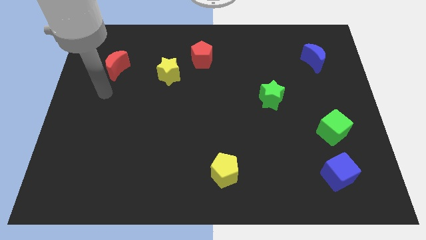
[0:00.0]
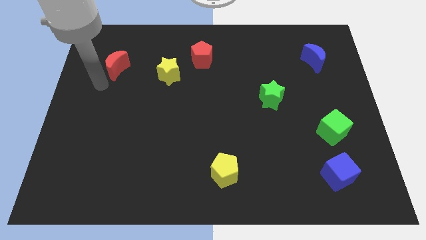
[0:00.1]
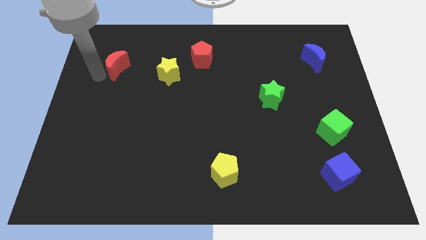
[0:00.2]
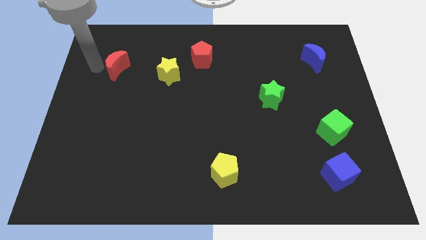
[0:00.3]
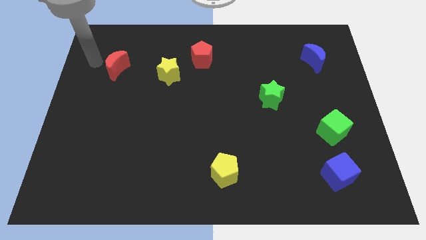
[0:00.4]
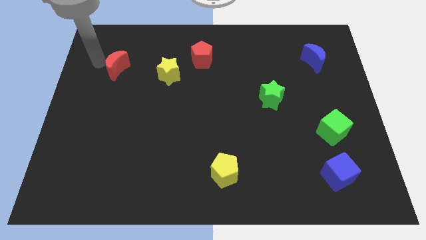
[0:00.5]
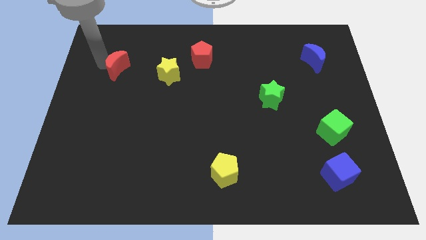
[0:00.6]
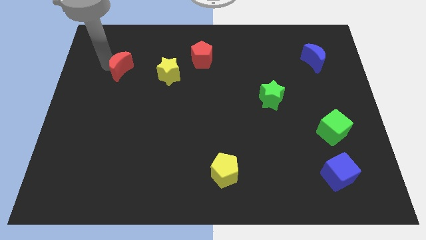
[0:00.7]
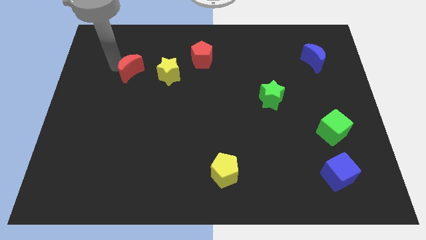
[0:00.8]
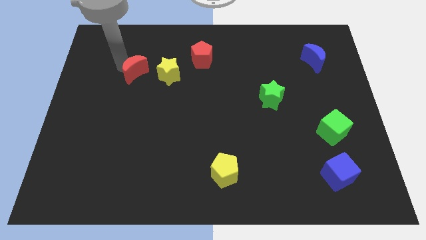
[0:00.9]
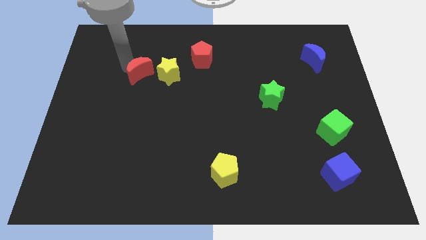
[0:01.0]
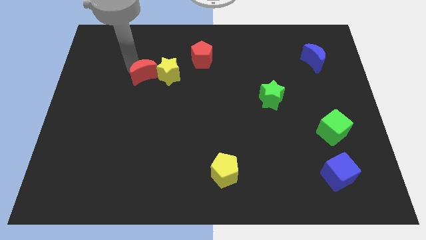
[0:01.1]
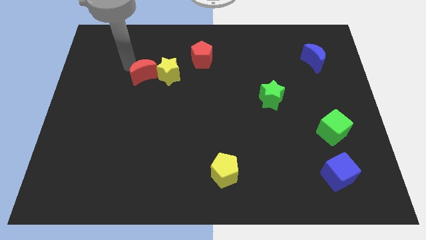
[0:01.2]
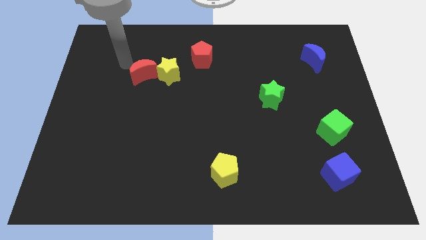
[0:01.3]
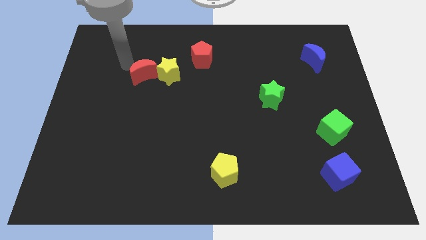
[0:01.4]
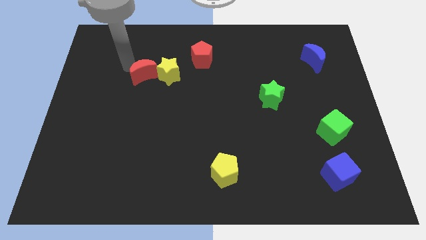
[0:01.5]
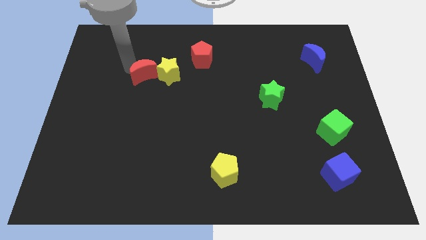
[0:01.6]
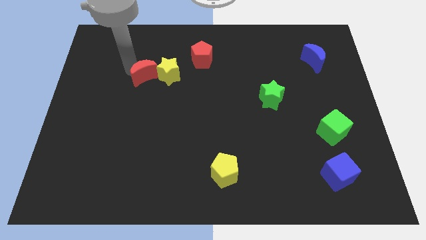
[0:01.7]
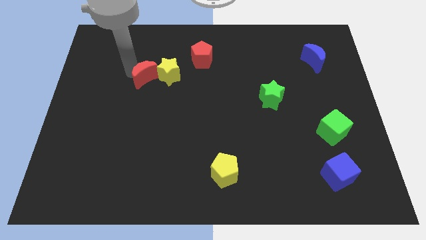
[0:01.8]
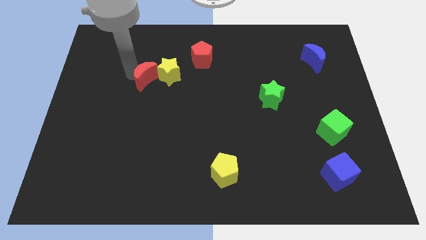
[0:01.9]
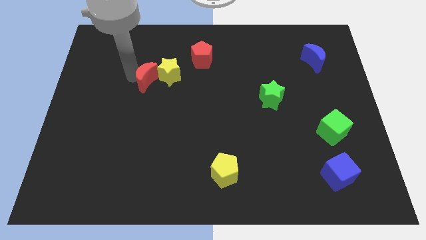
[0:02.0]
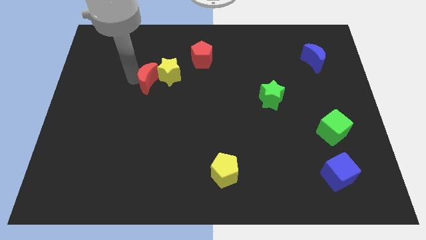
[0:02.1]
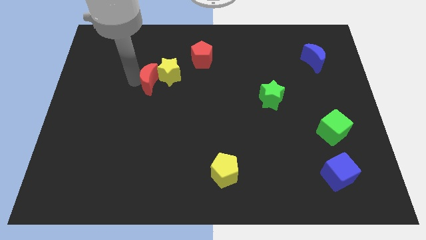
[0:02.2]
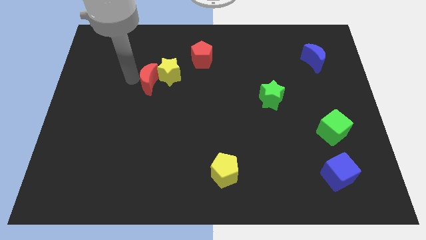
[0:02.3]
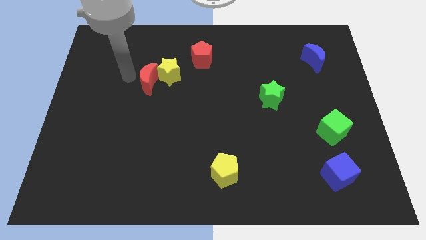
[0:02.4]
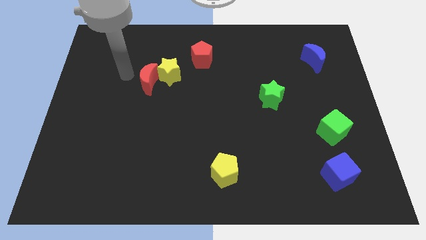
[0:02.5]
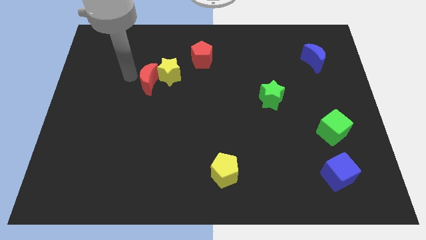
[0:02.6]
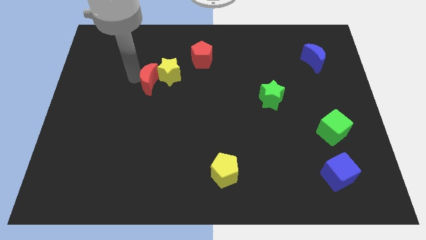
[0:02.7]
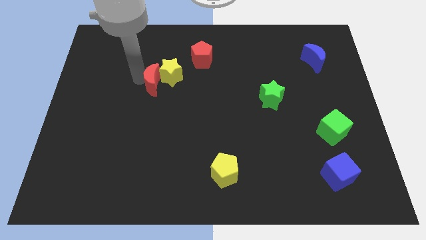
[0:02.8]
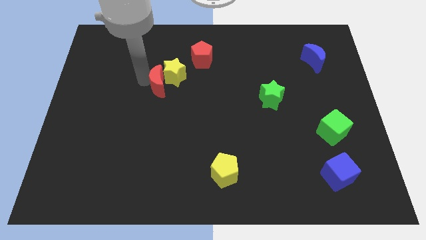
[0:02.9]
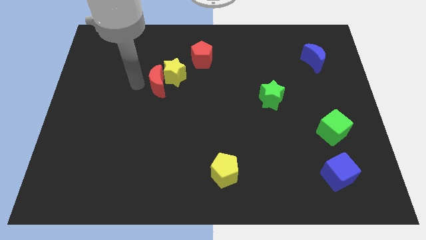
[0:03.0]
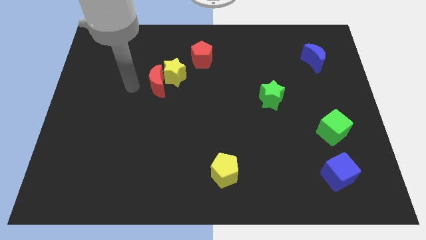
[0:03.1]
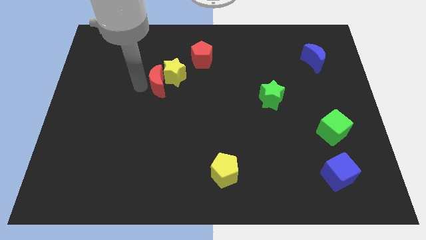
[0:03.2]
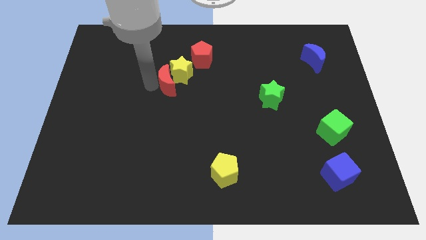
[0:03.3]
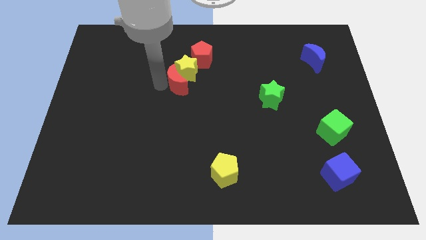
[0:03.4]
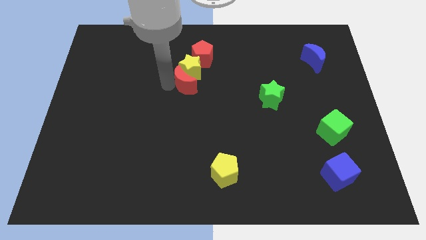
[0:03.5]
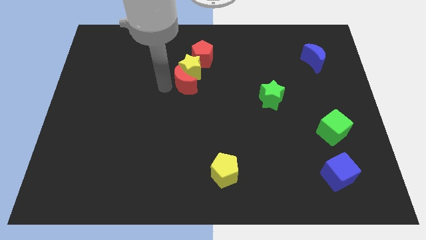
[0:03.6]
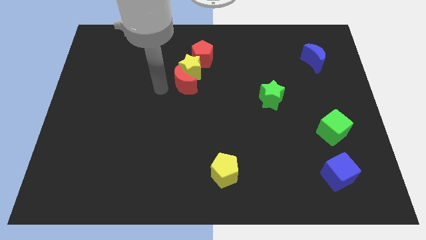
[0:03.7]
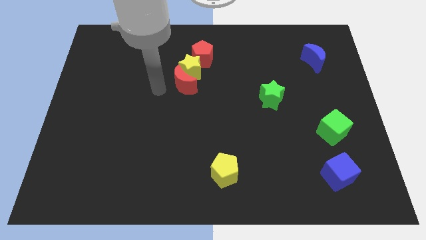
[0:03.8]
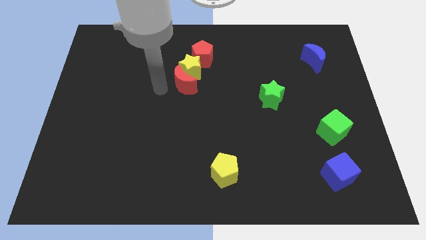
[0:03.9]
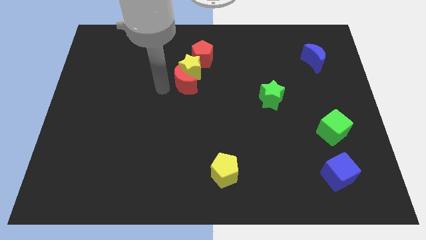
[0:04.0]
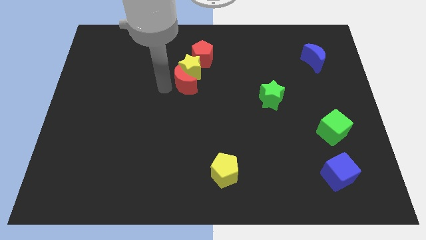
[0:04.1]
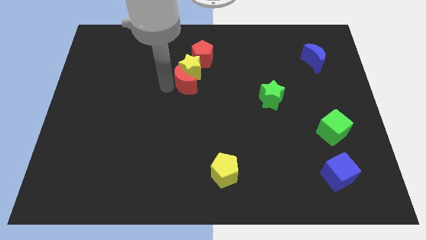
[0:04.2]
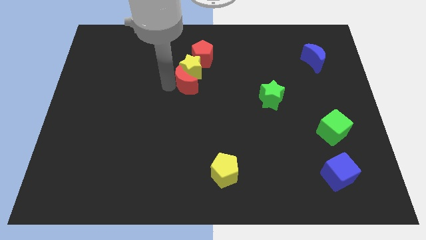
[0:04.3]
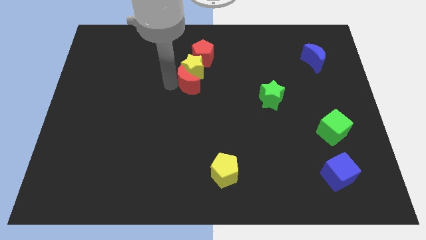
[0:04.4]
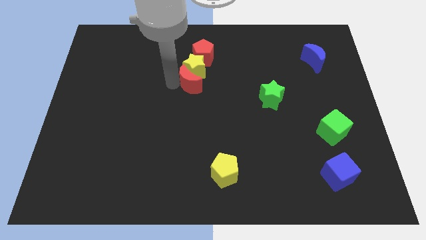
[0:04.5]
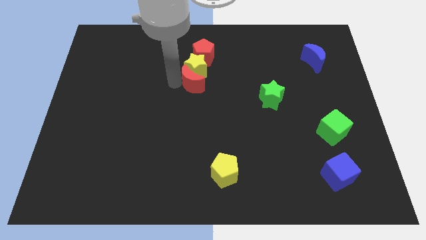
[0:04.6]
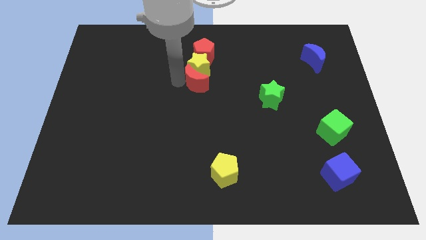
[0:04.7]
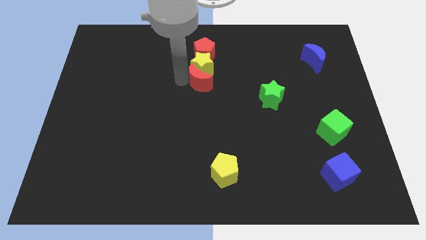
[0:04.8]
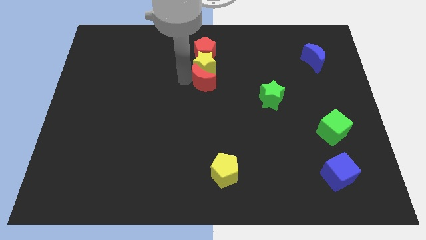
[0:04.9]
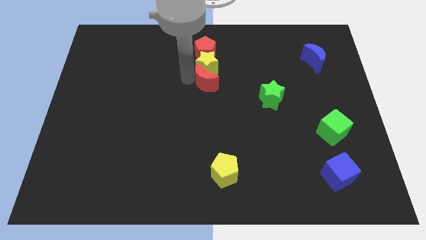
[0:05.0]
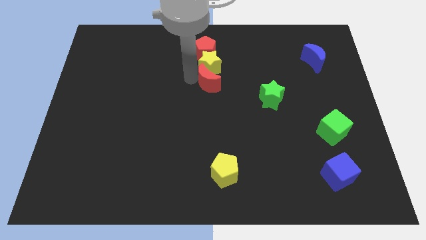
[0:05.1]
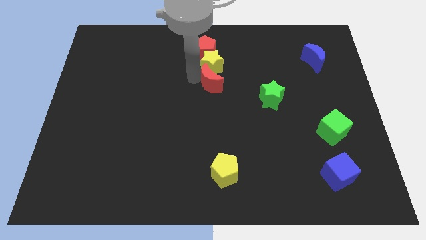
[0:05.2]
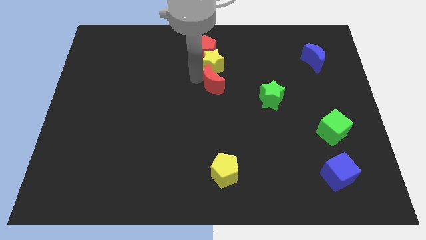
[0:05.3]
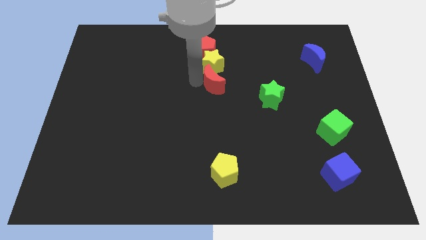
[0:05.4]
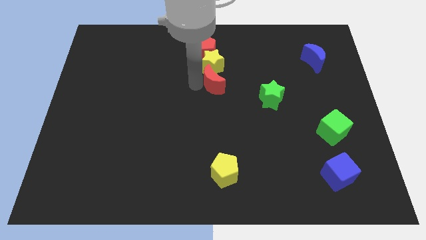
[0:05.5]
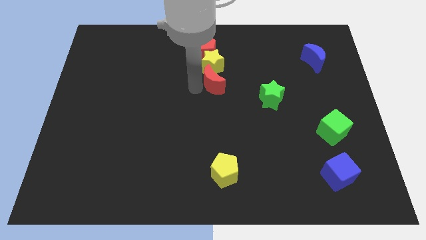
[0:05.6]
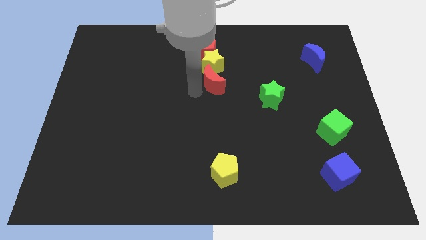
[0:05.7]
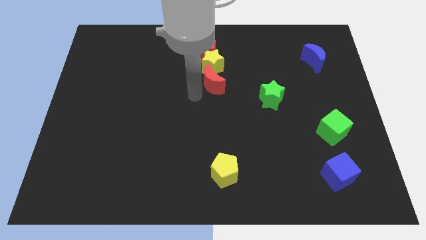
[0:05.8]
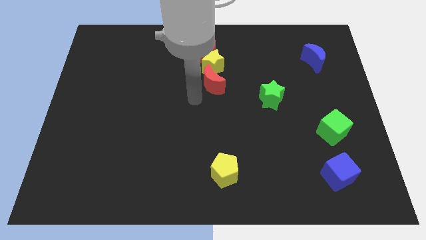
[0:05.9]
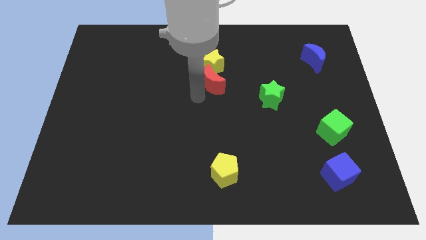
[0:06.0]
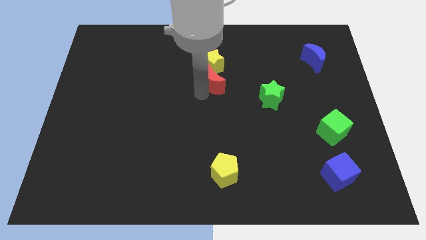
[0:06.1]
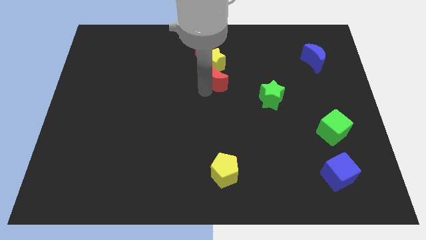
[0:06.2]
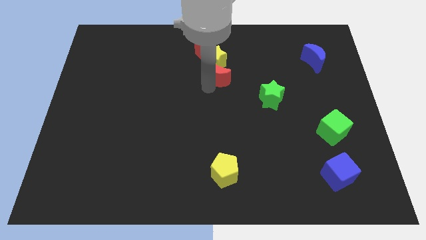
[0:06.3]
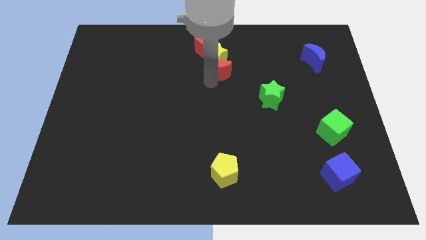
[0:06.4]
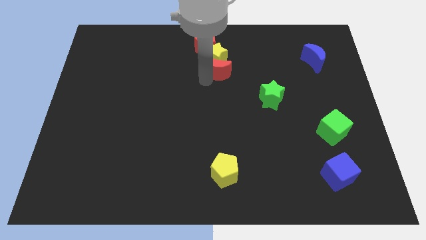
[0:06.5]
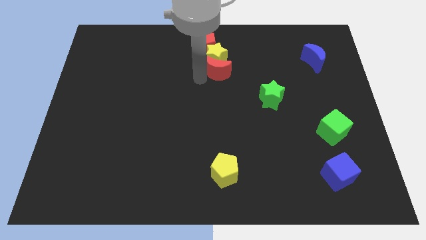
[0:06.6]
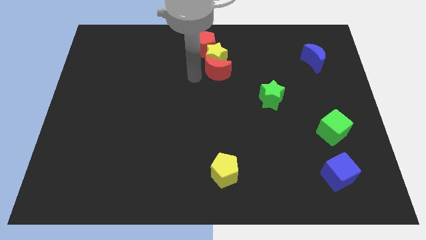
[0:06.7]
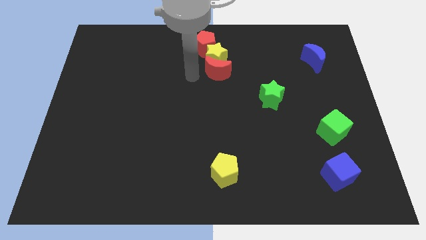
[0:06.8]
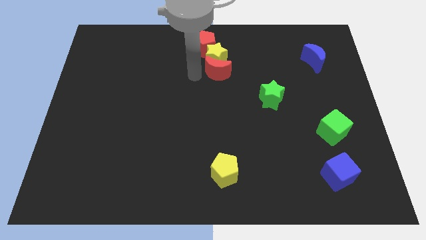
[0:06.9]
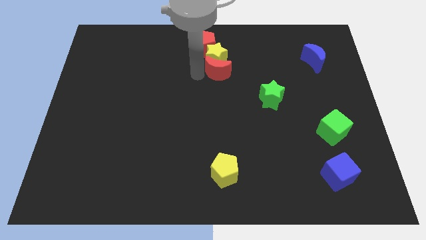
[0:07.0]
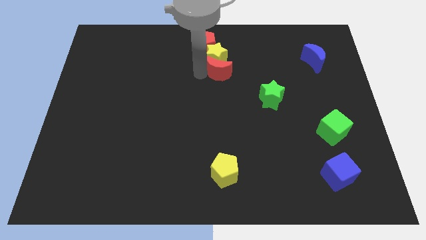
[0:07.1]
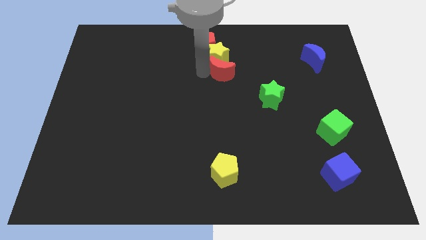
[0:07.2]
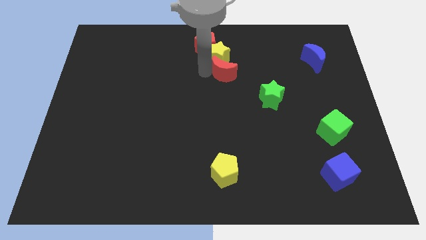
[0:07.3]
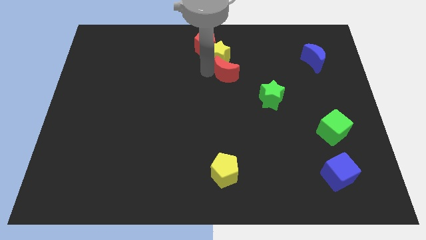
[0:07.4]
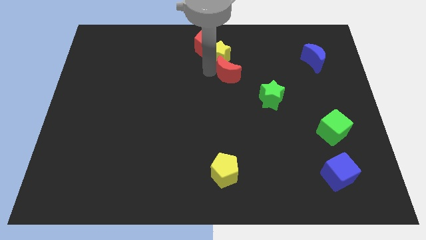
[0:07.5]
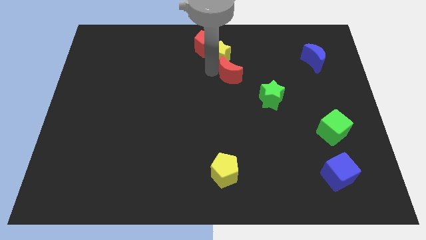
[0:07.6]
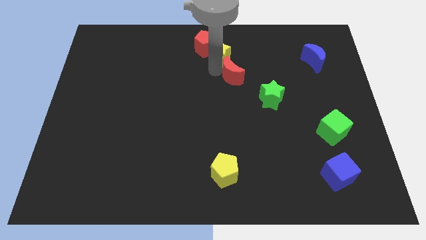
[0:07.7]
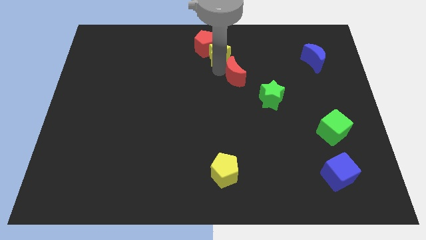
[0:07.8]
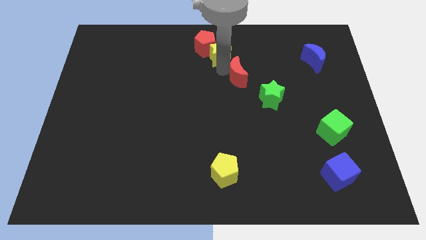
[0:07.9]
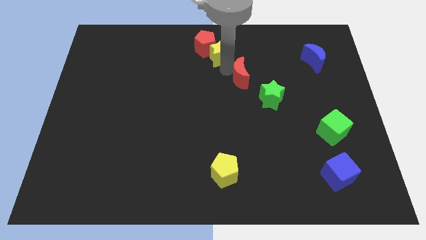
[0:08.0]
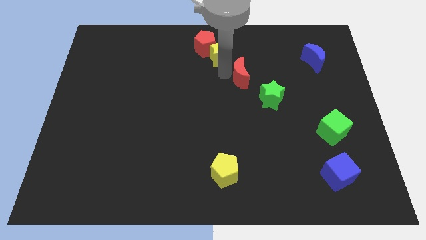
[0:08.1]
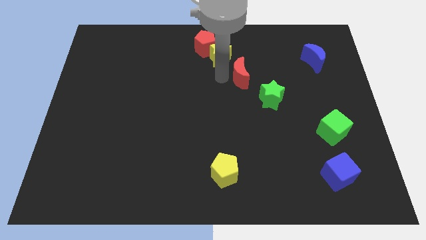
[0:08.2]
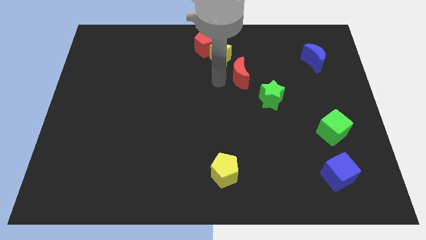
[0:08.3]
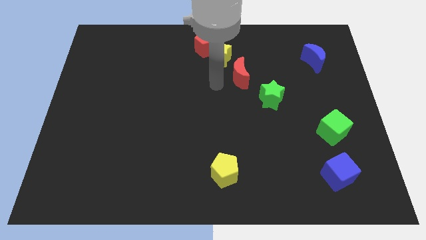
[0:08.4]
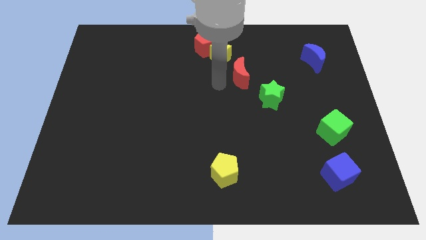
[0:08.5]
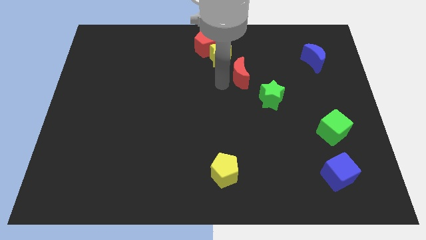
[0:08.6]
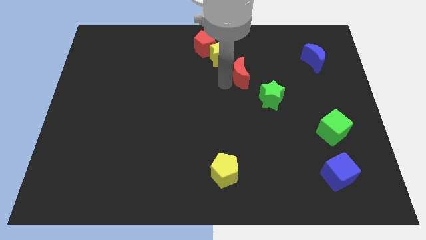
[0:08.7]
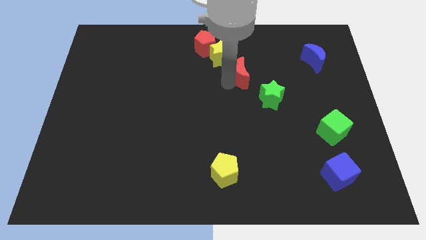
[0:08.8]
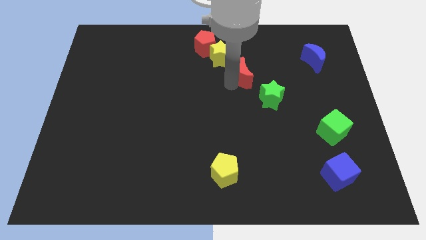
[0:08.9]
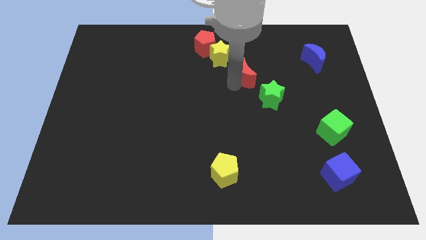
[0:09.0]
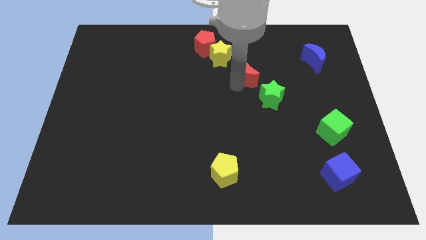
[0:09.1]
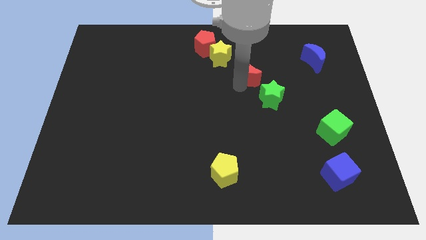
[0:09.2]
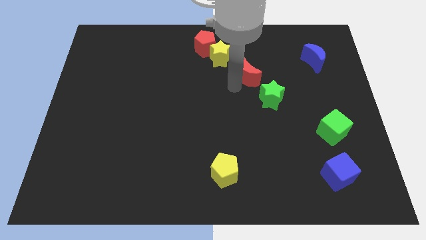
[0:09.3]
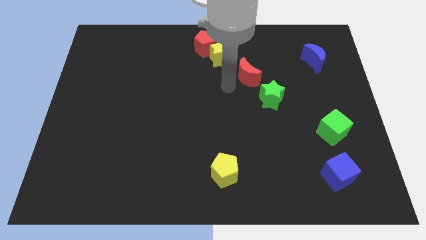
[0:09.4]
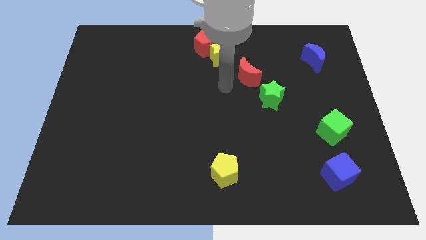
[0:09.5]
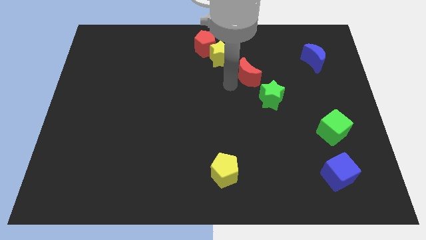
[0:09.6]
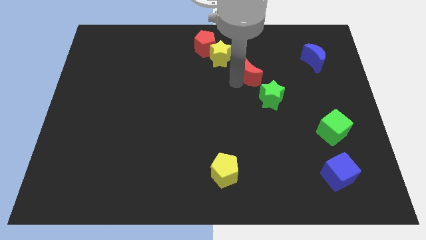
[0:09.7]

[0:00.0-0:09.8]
slide the red moon to the top side of the green star
